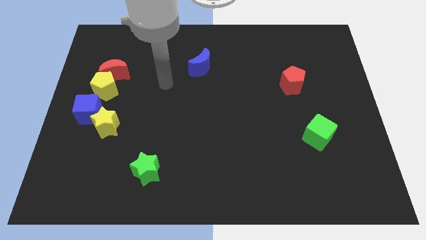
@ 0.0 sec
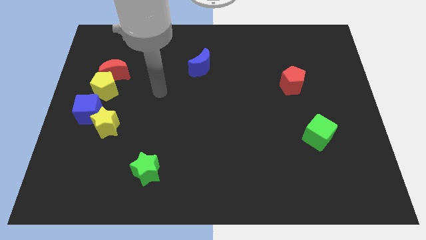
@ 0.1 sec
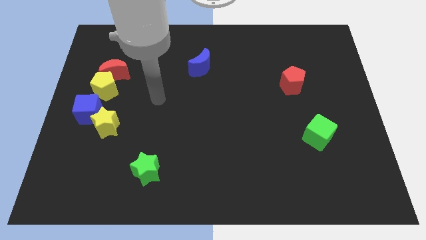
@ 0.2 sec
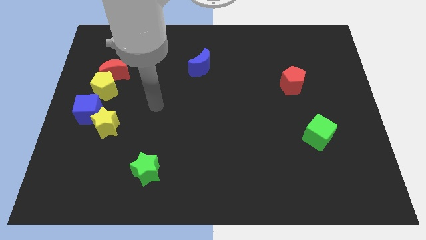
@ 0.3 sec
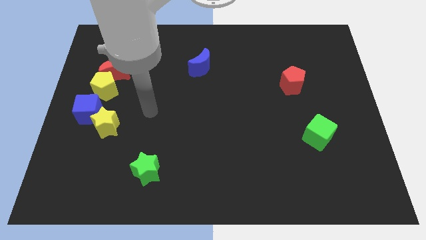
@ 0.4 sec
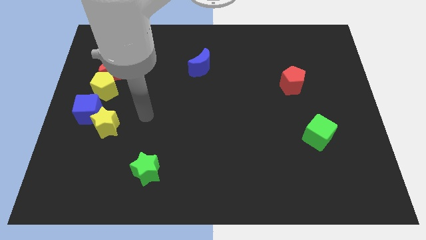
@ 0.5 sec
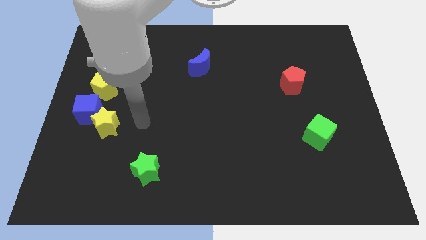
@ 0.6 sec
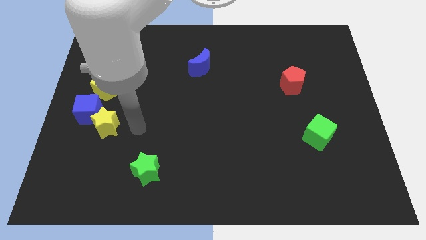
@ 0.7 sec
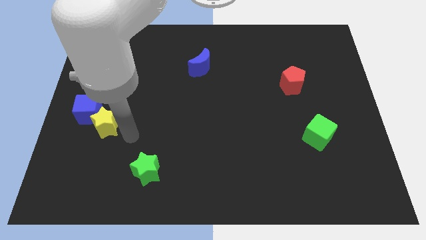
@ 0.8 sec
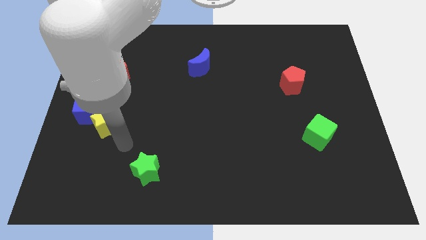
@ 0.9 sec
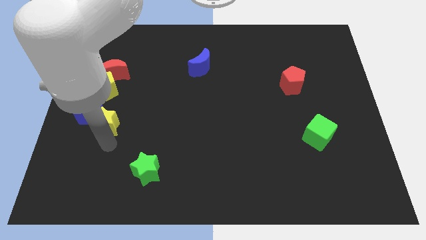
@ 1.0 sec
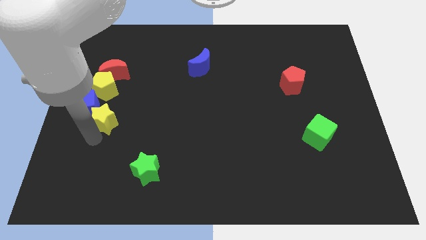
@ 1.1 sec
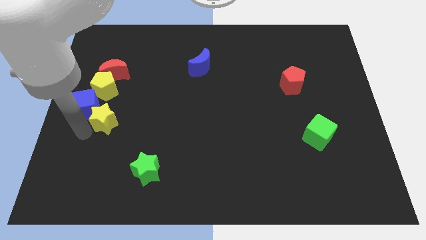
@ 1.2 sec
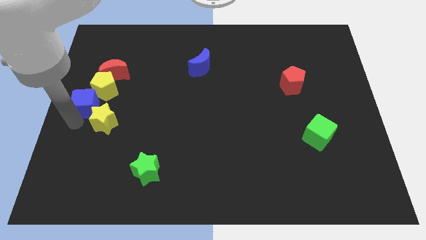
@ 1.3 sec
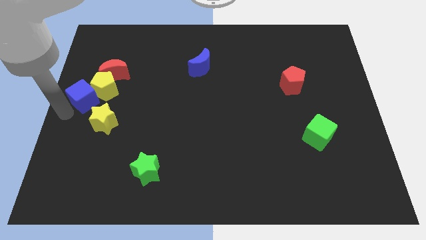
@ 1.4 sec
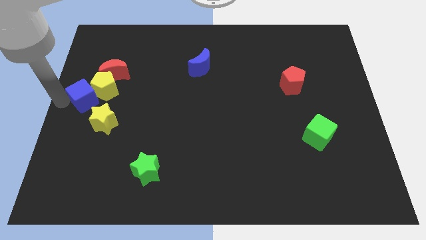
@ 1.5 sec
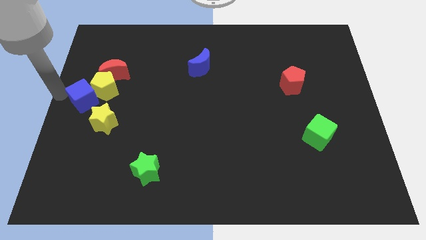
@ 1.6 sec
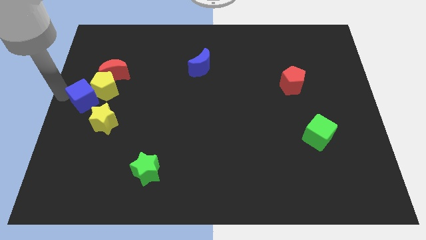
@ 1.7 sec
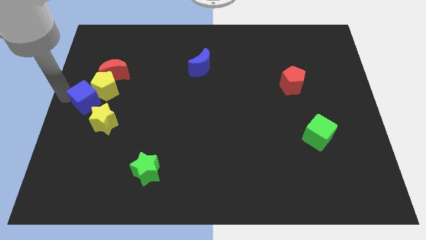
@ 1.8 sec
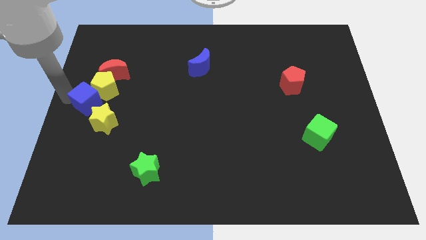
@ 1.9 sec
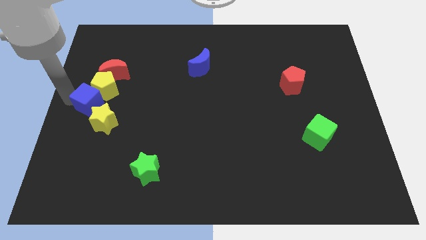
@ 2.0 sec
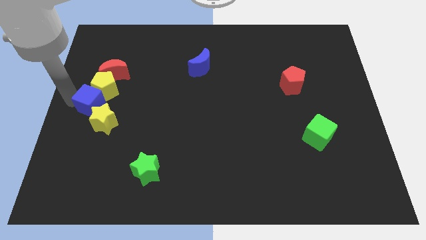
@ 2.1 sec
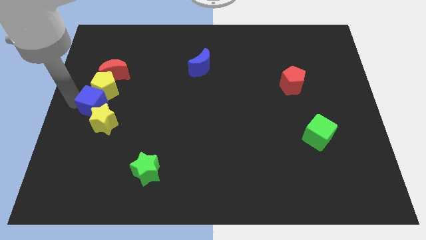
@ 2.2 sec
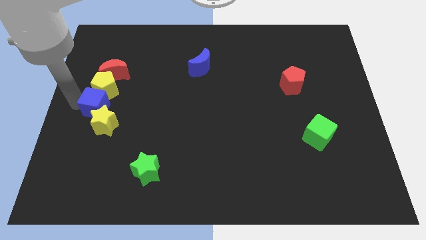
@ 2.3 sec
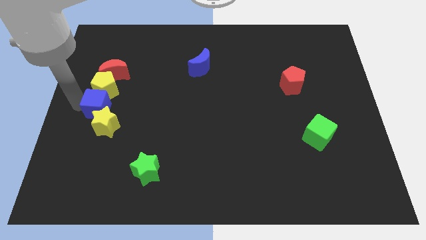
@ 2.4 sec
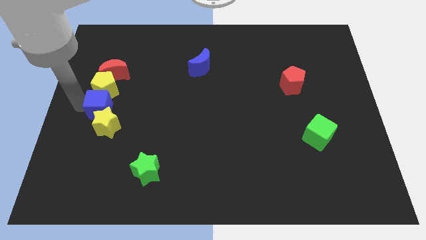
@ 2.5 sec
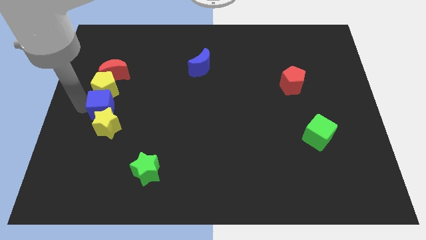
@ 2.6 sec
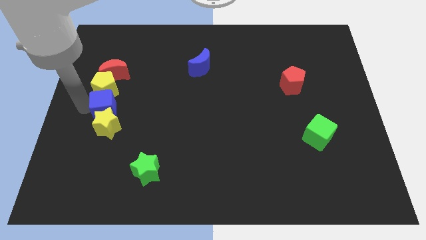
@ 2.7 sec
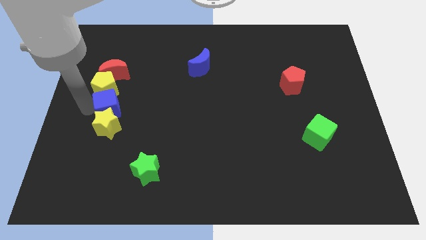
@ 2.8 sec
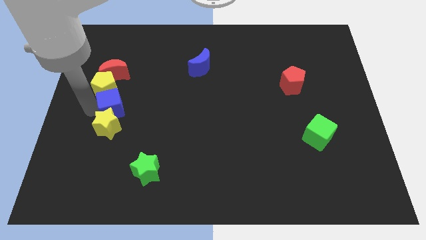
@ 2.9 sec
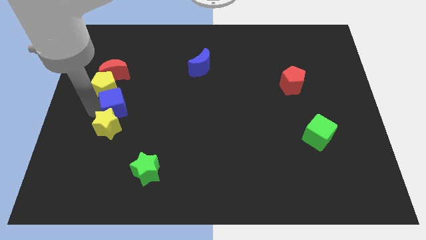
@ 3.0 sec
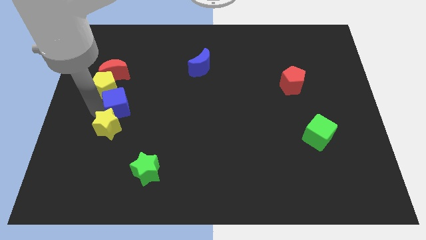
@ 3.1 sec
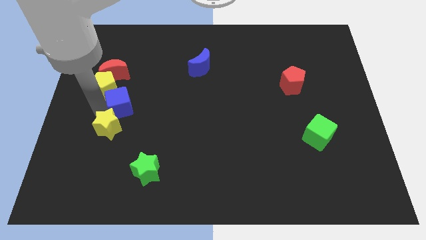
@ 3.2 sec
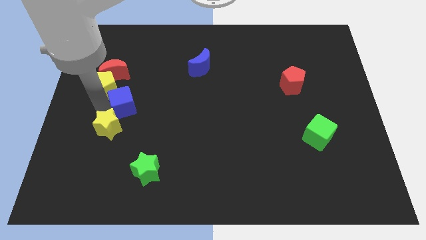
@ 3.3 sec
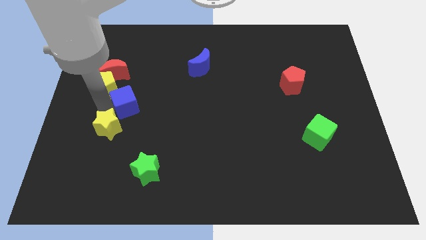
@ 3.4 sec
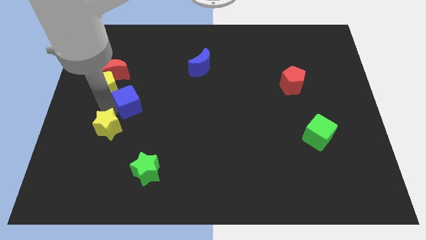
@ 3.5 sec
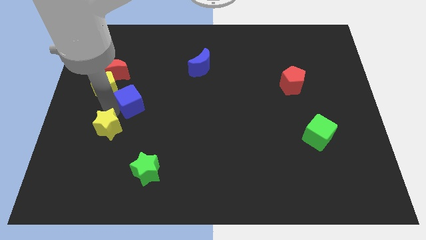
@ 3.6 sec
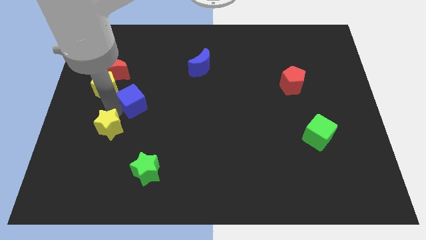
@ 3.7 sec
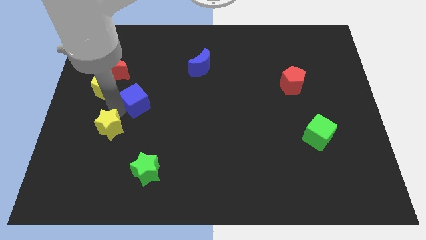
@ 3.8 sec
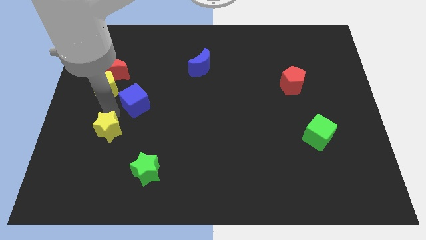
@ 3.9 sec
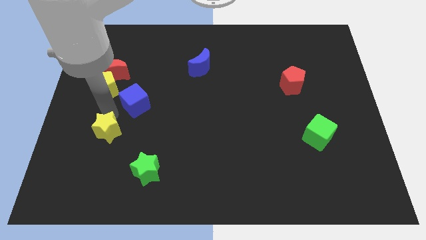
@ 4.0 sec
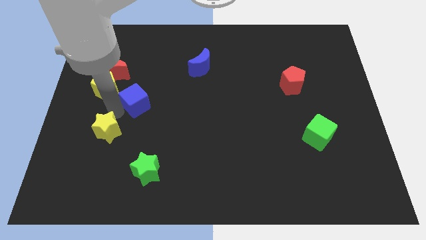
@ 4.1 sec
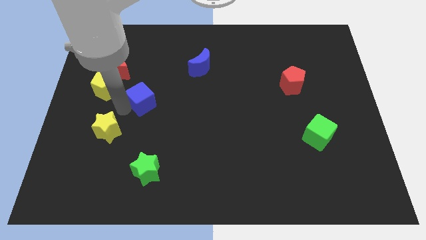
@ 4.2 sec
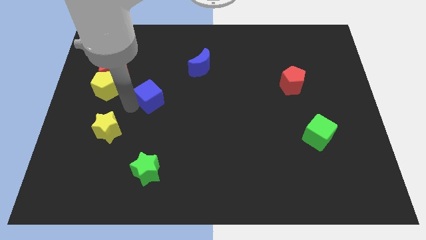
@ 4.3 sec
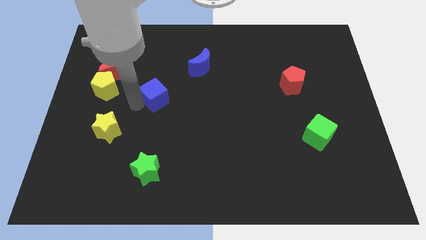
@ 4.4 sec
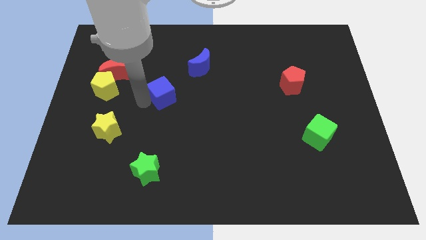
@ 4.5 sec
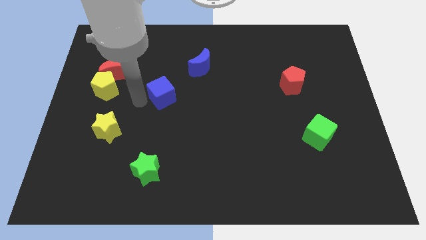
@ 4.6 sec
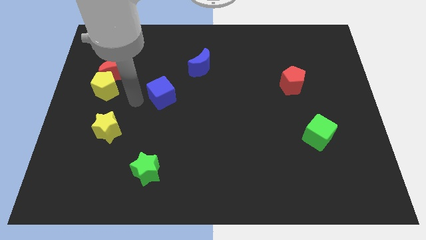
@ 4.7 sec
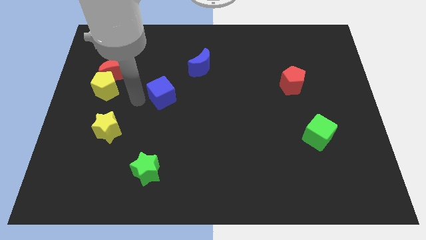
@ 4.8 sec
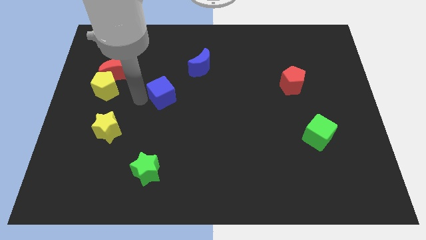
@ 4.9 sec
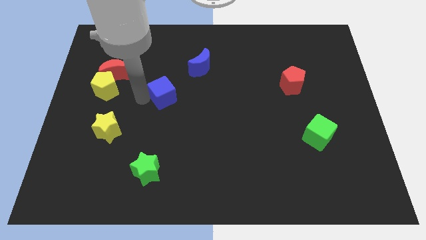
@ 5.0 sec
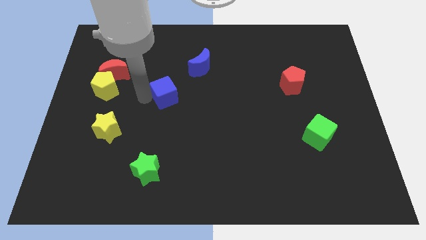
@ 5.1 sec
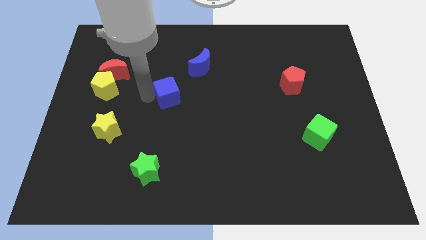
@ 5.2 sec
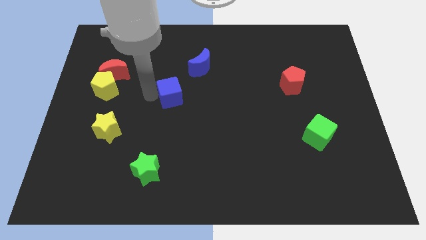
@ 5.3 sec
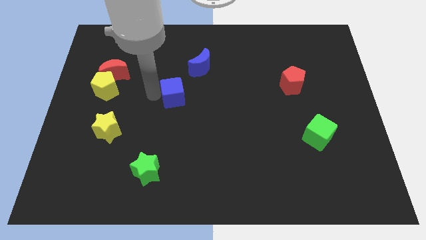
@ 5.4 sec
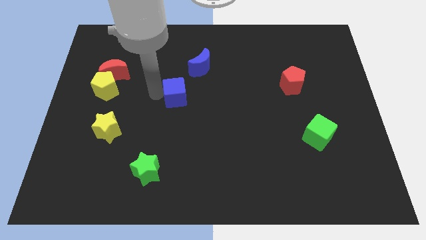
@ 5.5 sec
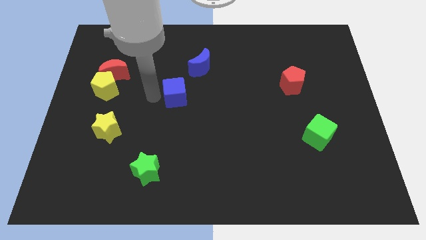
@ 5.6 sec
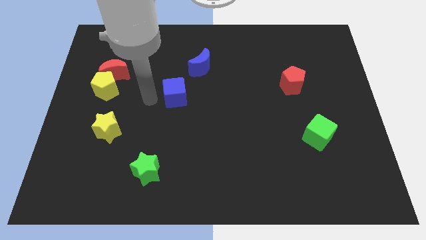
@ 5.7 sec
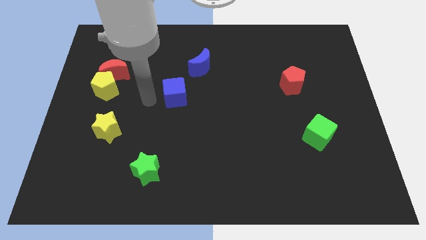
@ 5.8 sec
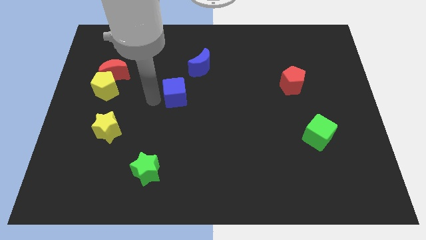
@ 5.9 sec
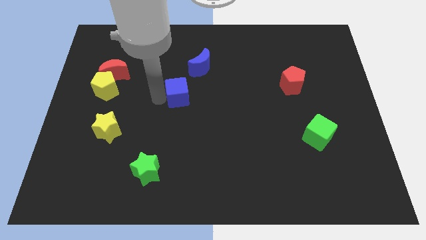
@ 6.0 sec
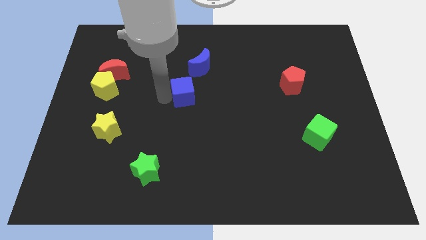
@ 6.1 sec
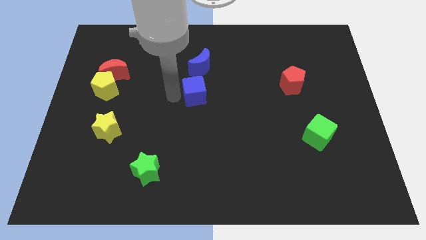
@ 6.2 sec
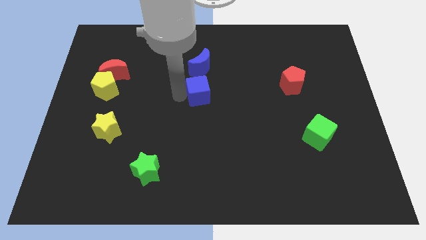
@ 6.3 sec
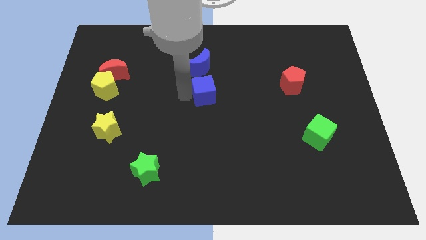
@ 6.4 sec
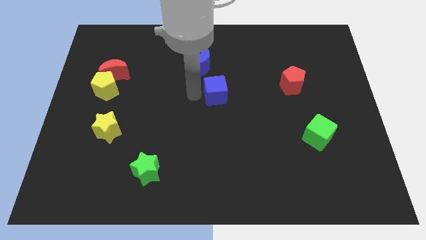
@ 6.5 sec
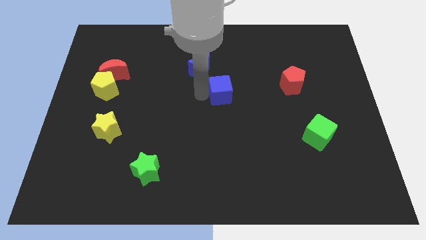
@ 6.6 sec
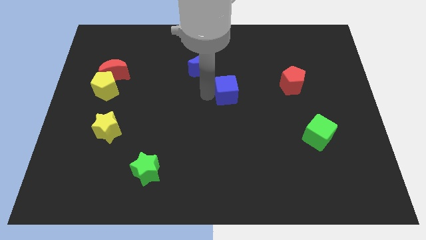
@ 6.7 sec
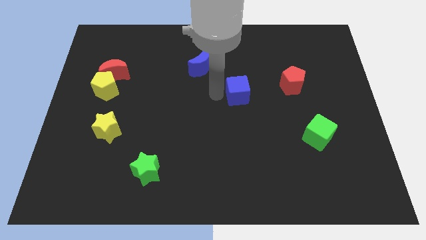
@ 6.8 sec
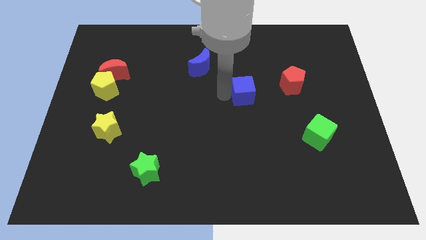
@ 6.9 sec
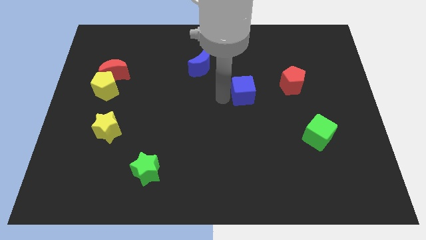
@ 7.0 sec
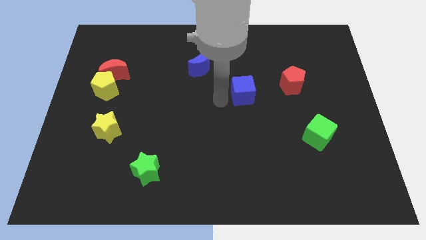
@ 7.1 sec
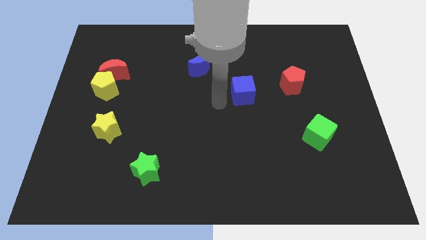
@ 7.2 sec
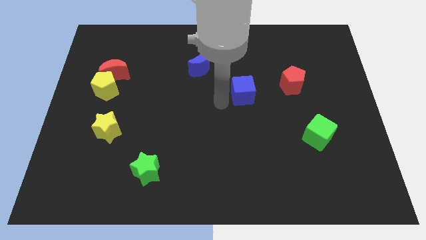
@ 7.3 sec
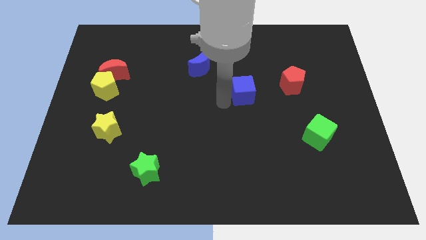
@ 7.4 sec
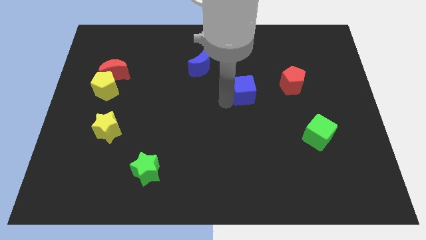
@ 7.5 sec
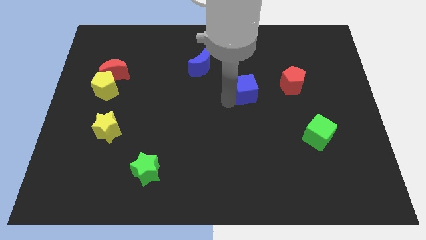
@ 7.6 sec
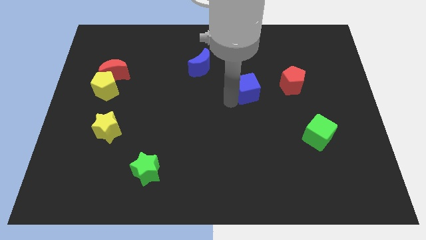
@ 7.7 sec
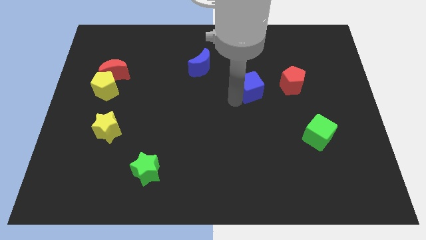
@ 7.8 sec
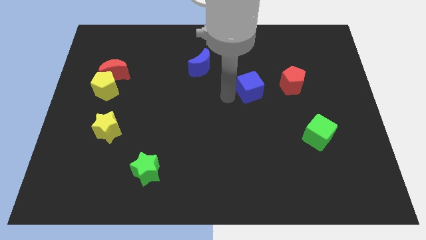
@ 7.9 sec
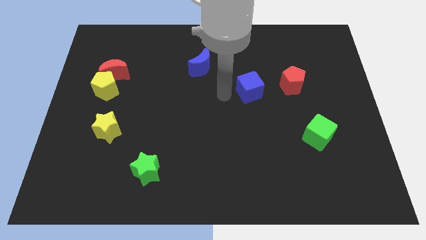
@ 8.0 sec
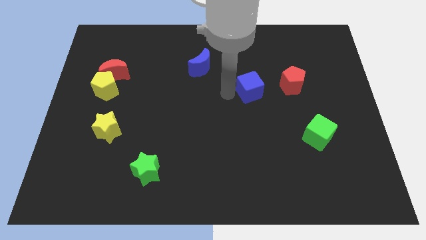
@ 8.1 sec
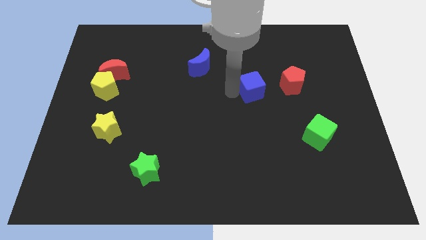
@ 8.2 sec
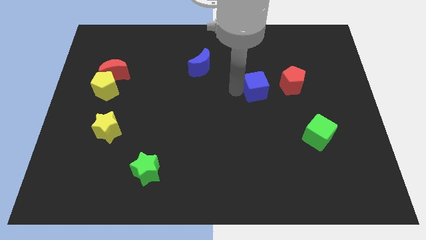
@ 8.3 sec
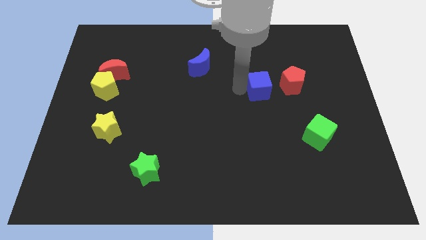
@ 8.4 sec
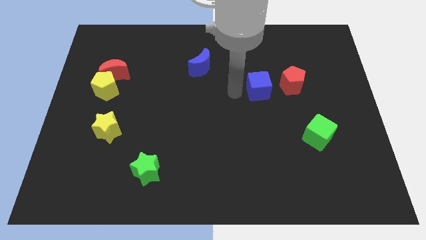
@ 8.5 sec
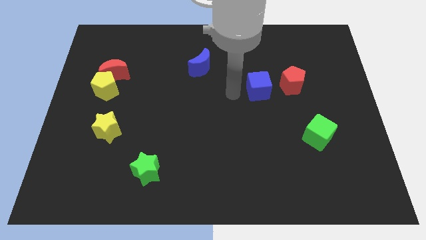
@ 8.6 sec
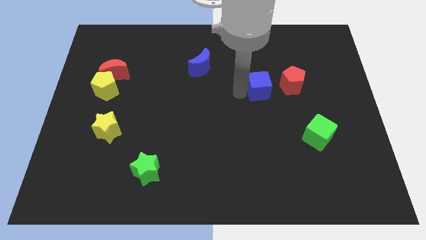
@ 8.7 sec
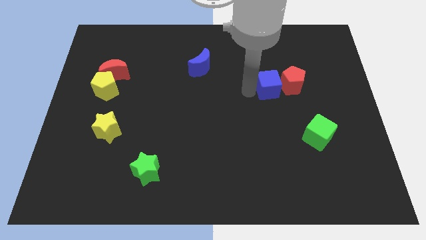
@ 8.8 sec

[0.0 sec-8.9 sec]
push the blue cube towards the red pentagon
